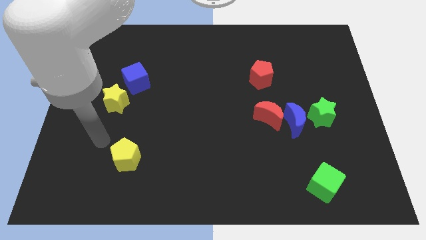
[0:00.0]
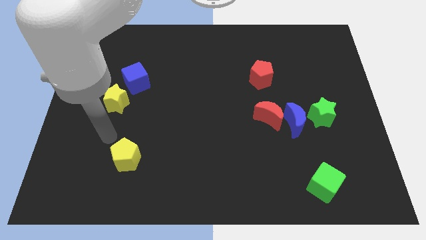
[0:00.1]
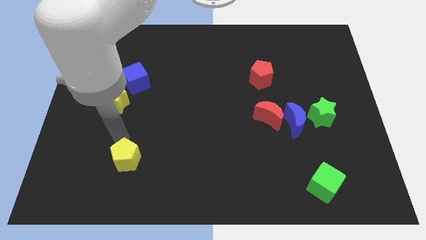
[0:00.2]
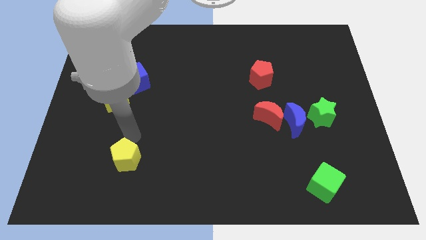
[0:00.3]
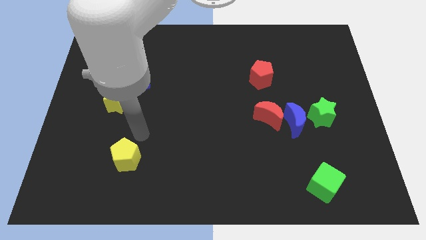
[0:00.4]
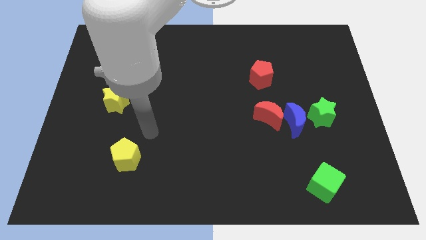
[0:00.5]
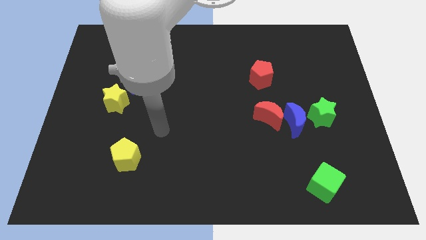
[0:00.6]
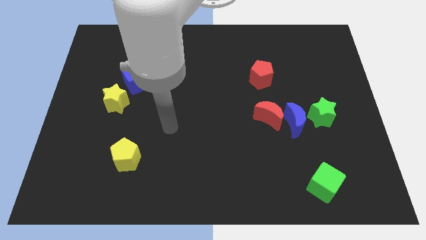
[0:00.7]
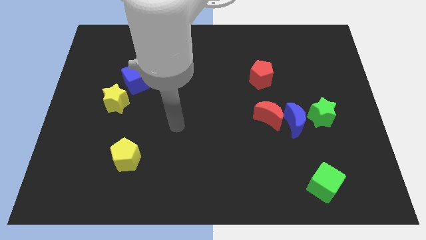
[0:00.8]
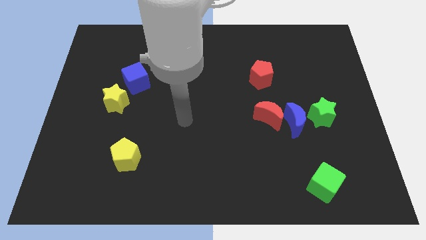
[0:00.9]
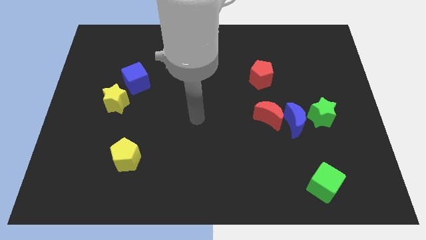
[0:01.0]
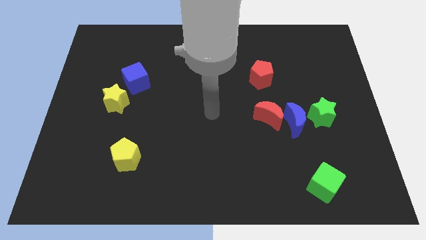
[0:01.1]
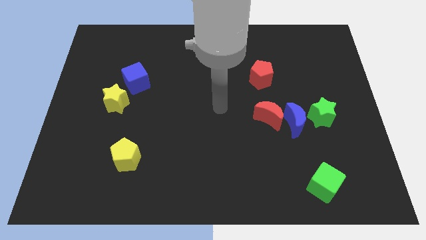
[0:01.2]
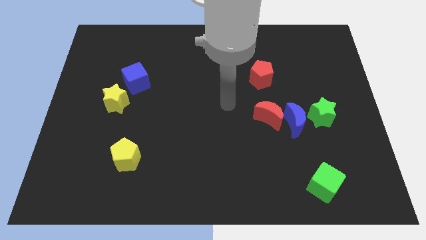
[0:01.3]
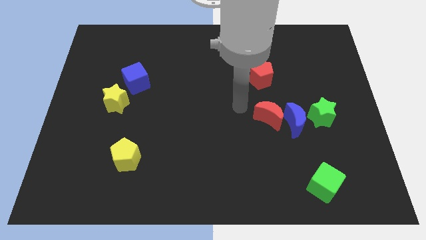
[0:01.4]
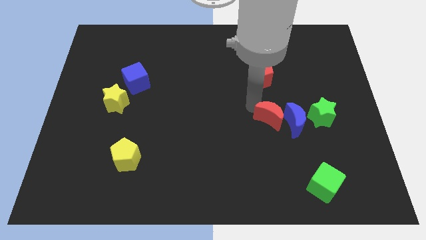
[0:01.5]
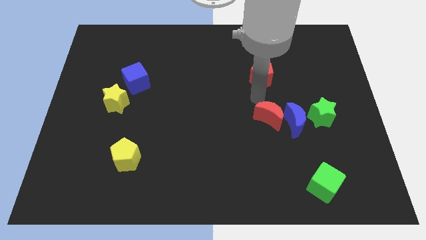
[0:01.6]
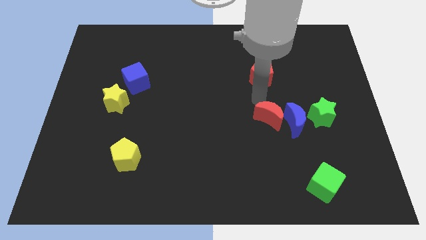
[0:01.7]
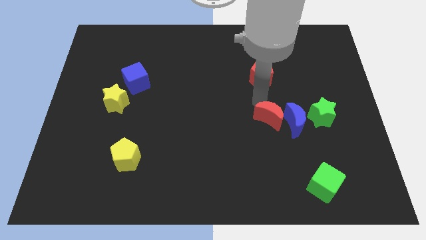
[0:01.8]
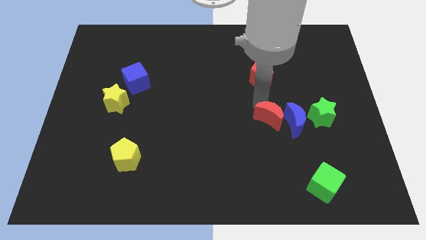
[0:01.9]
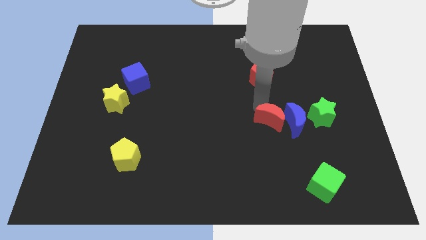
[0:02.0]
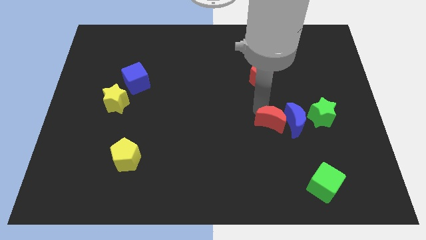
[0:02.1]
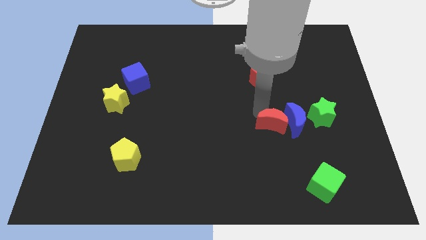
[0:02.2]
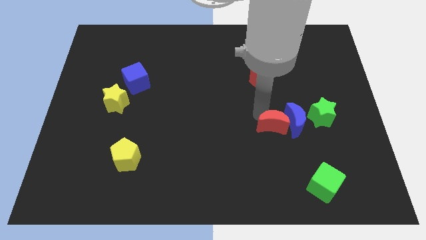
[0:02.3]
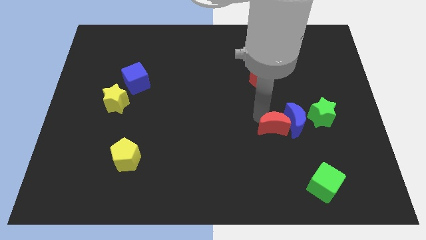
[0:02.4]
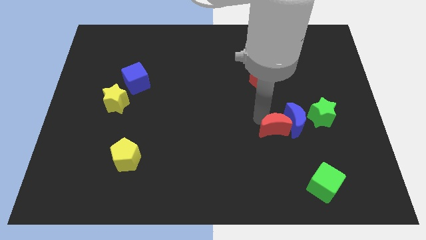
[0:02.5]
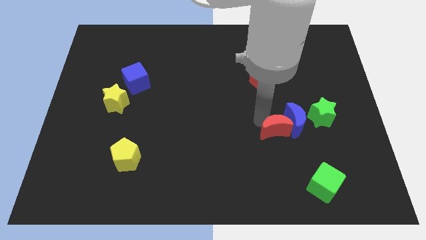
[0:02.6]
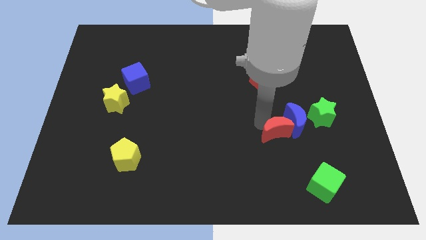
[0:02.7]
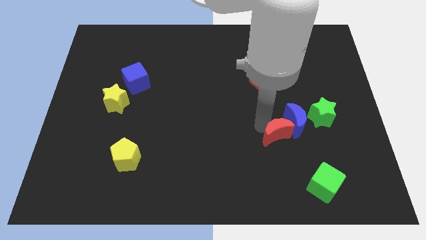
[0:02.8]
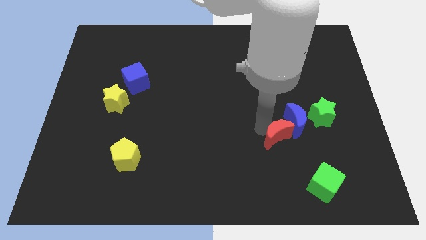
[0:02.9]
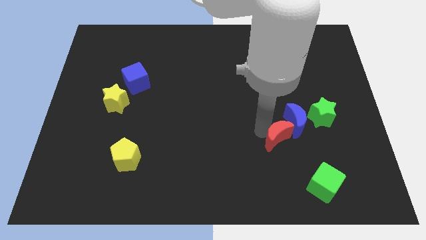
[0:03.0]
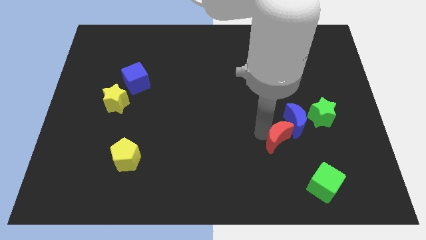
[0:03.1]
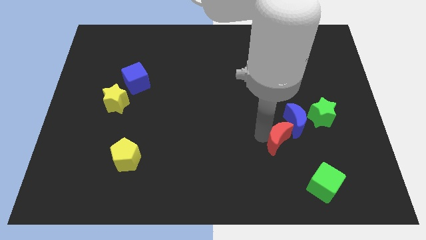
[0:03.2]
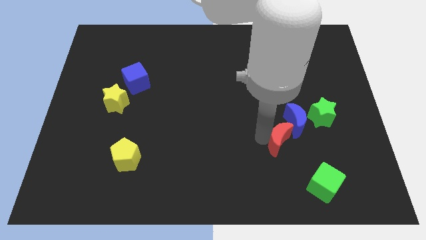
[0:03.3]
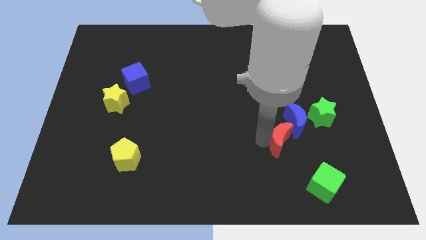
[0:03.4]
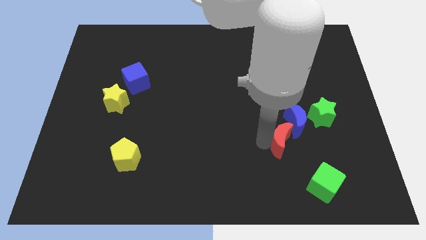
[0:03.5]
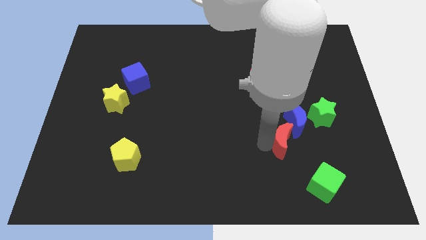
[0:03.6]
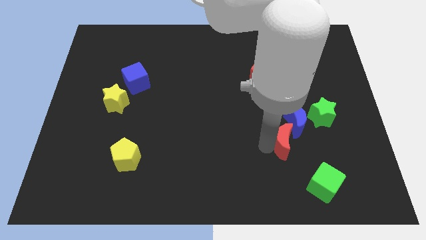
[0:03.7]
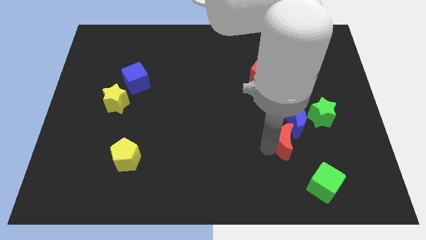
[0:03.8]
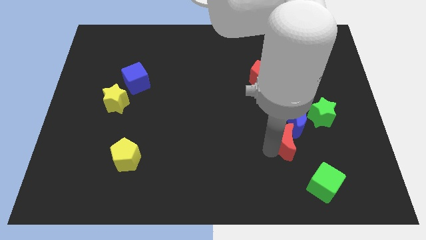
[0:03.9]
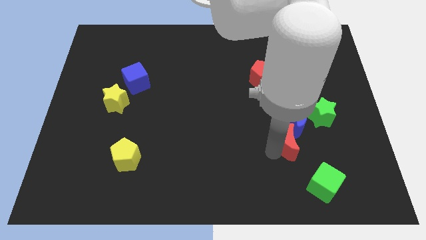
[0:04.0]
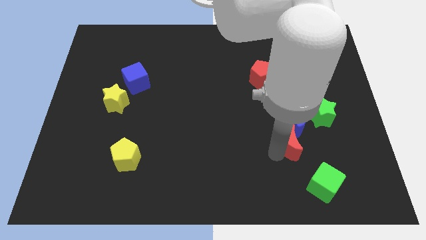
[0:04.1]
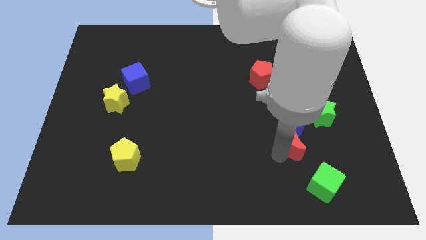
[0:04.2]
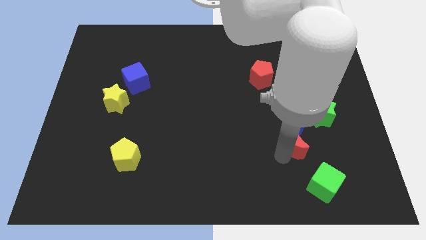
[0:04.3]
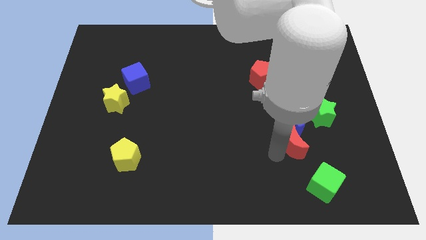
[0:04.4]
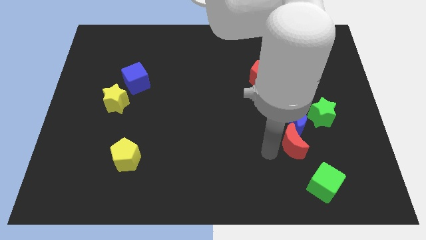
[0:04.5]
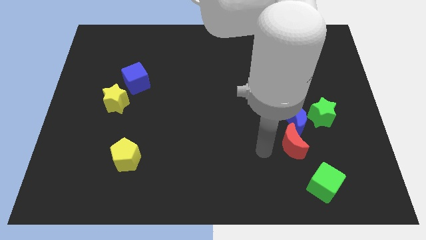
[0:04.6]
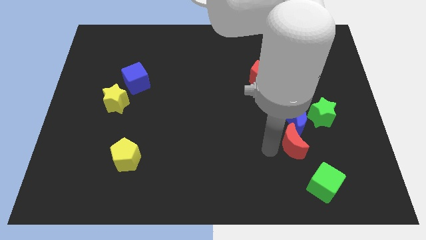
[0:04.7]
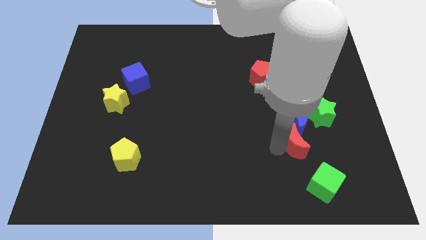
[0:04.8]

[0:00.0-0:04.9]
put the red moon to the top of the green cube

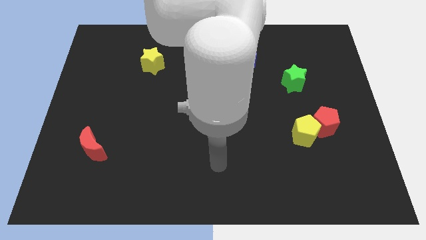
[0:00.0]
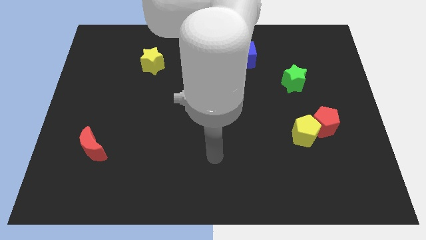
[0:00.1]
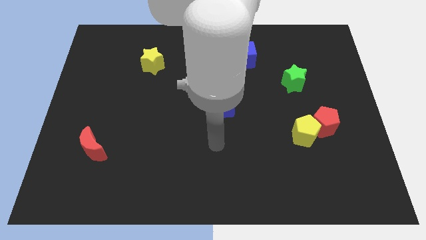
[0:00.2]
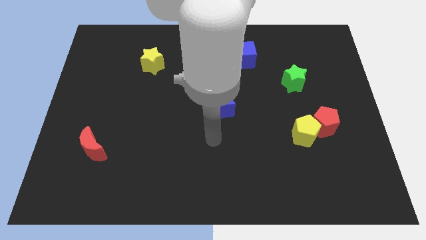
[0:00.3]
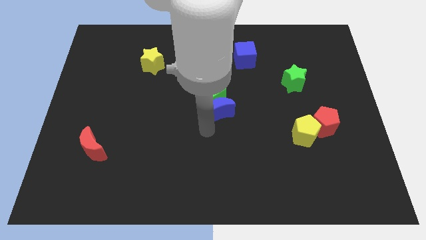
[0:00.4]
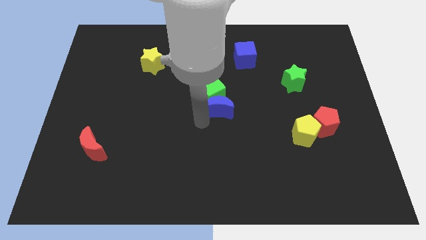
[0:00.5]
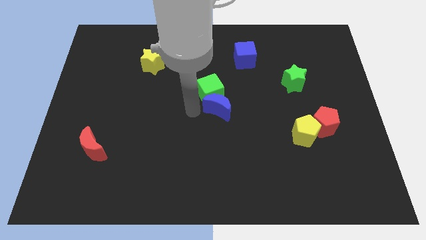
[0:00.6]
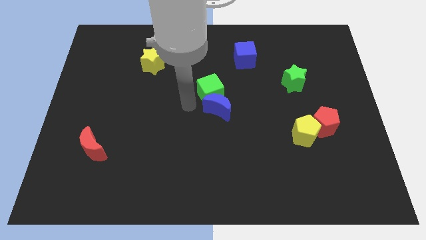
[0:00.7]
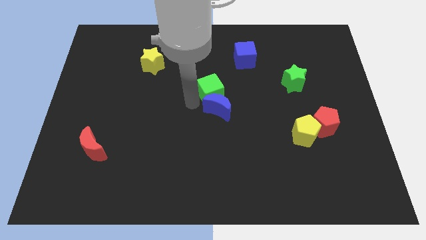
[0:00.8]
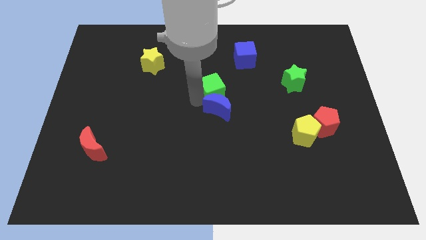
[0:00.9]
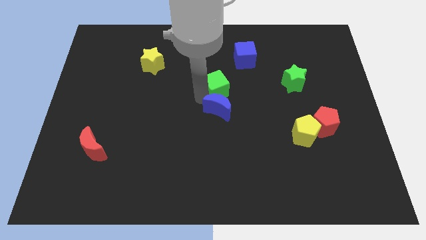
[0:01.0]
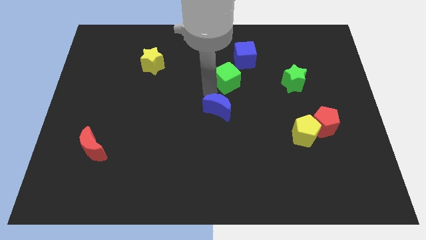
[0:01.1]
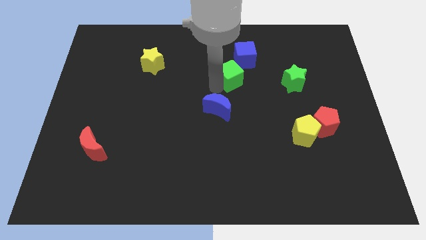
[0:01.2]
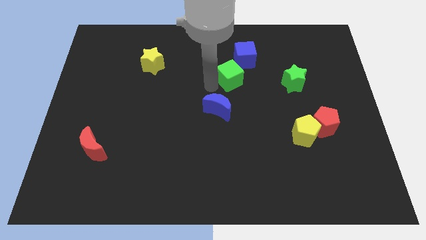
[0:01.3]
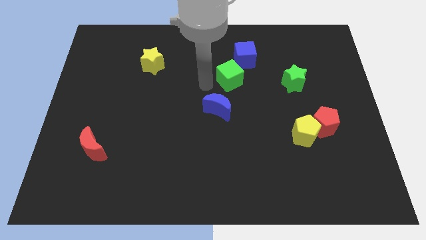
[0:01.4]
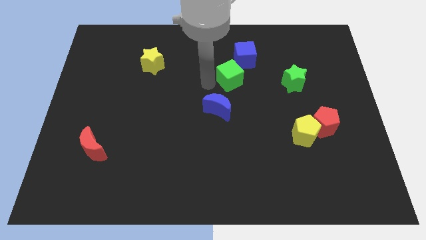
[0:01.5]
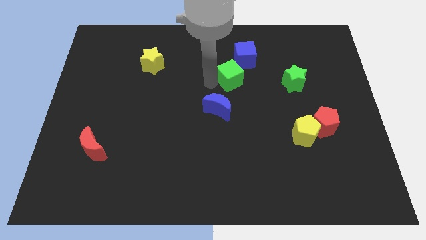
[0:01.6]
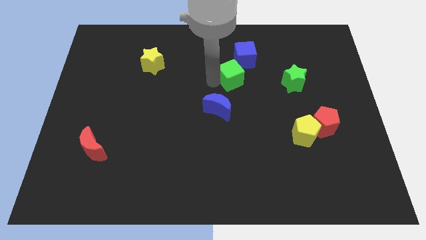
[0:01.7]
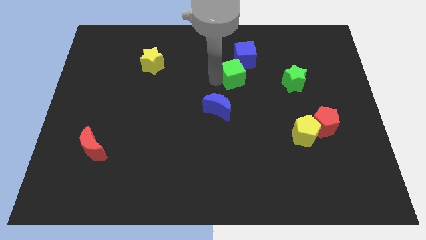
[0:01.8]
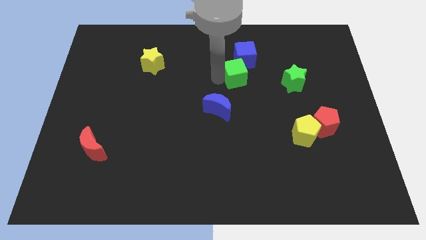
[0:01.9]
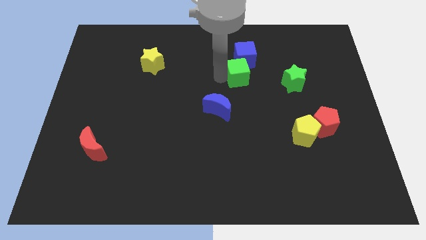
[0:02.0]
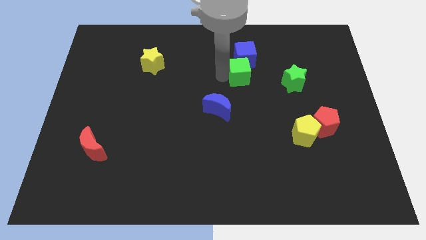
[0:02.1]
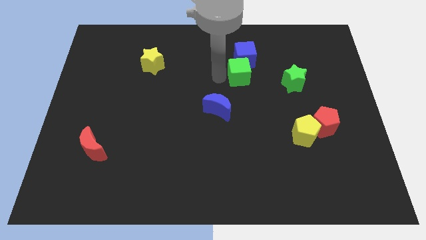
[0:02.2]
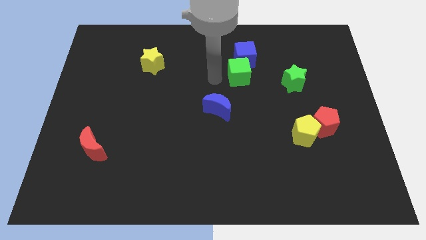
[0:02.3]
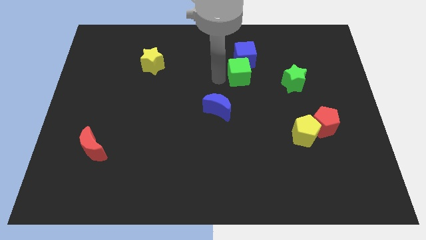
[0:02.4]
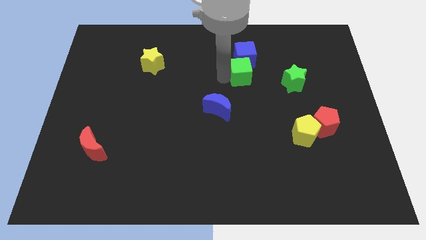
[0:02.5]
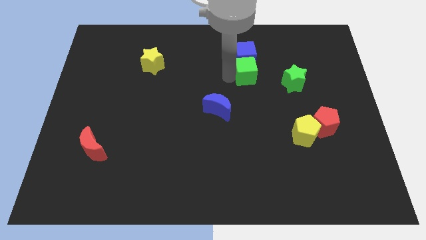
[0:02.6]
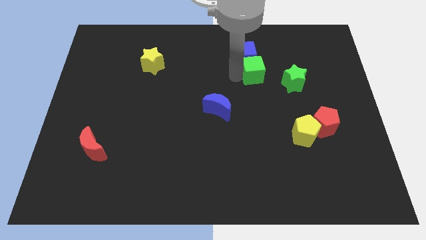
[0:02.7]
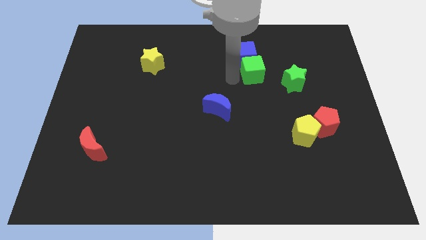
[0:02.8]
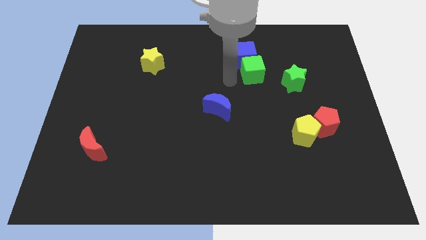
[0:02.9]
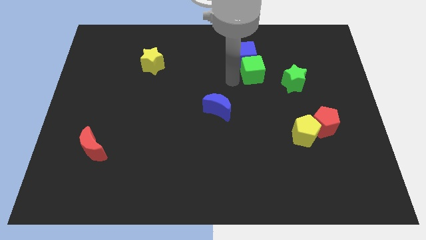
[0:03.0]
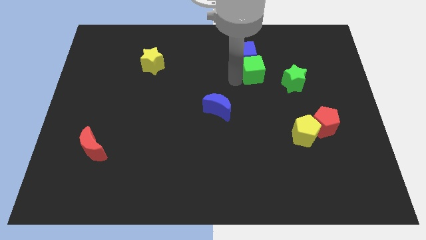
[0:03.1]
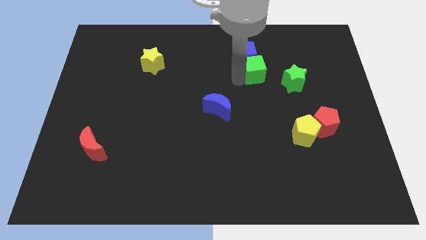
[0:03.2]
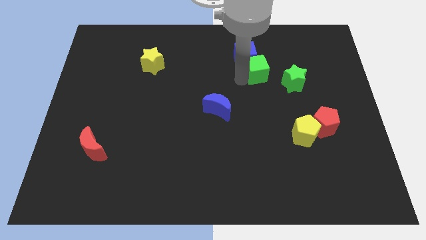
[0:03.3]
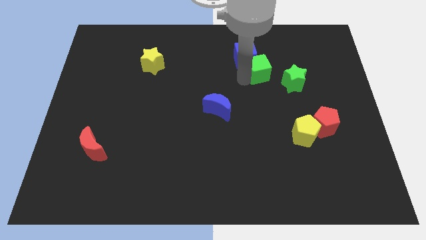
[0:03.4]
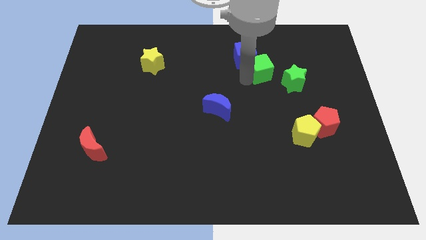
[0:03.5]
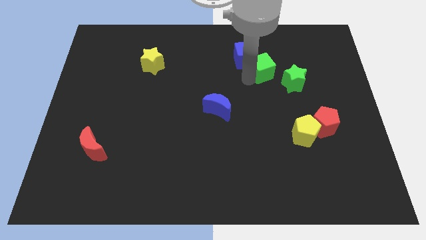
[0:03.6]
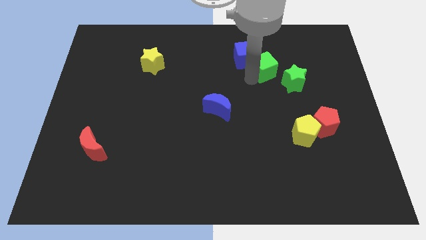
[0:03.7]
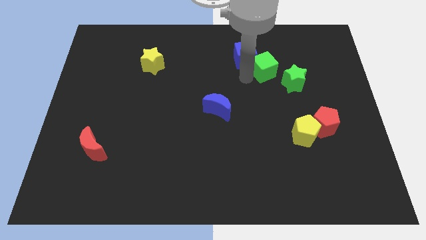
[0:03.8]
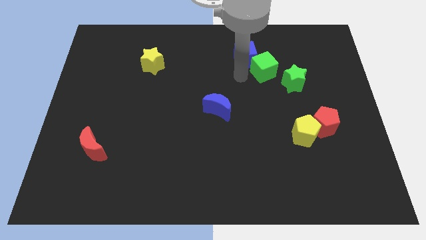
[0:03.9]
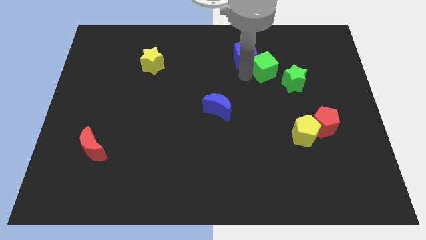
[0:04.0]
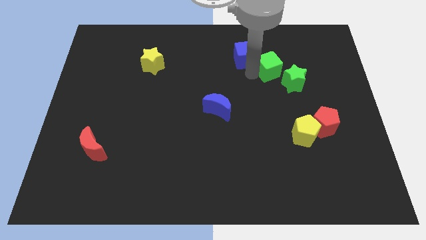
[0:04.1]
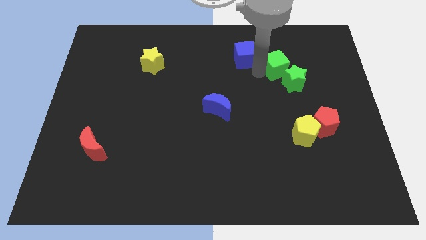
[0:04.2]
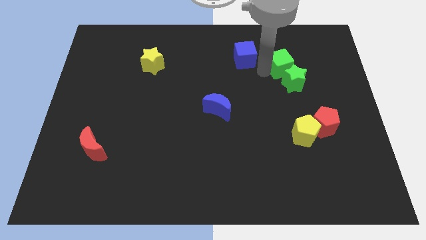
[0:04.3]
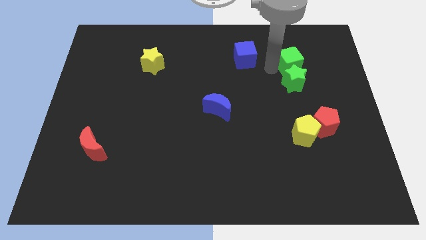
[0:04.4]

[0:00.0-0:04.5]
slide the green cube to the top right of the green star
